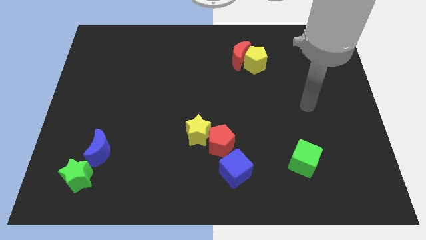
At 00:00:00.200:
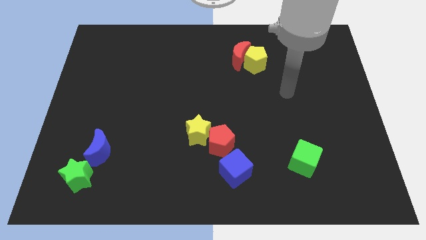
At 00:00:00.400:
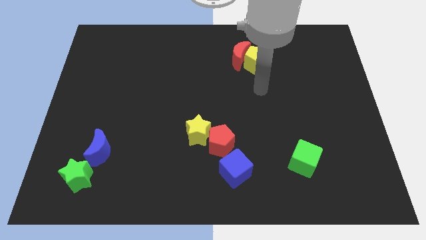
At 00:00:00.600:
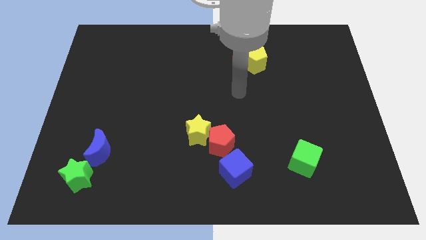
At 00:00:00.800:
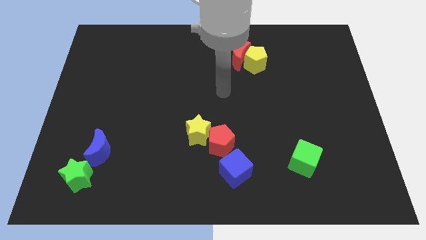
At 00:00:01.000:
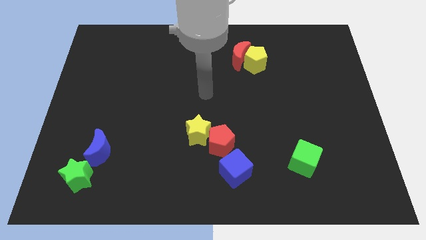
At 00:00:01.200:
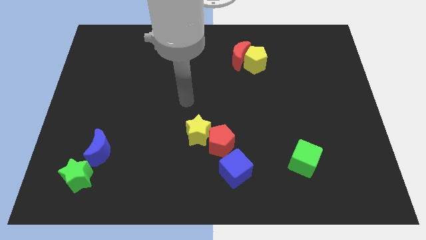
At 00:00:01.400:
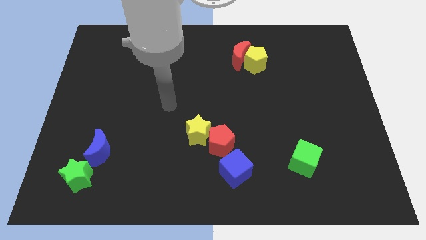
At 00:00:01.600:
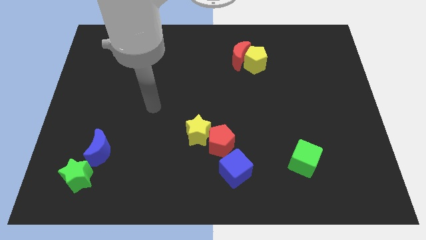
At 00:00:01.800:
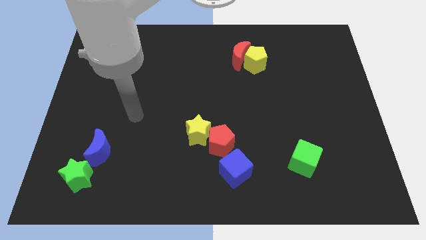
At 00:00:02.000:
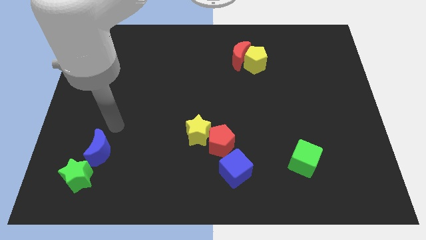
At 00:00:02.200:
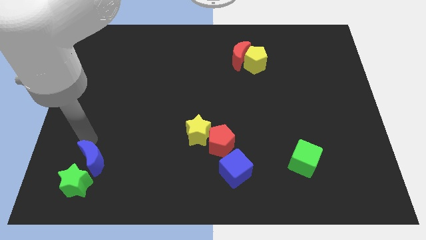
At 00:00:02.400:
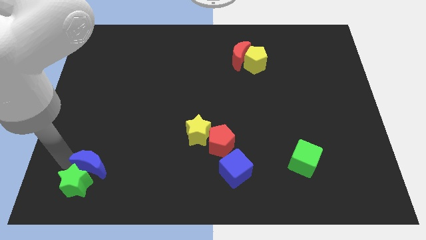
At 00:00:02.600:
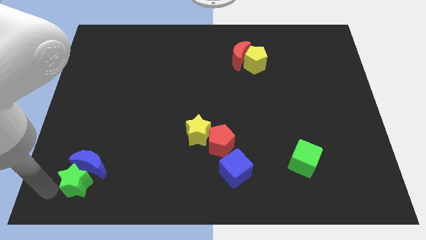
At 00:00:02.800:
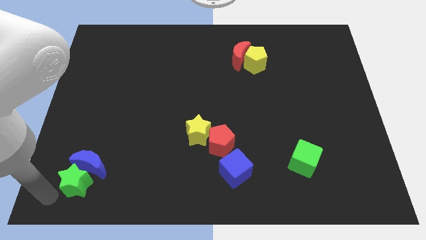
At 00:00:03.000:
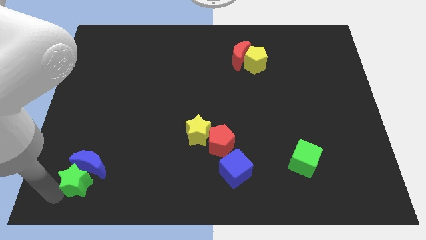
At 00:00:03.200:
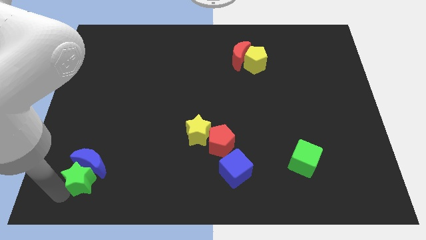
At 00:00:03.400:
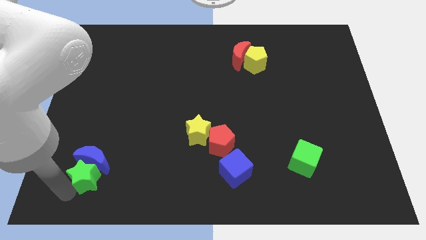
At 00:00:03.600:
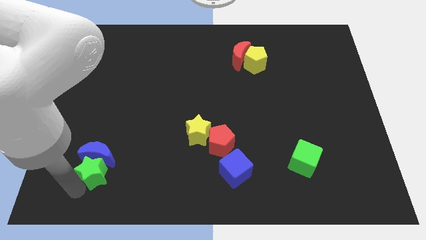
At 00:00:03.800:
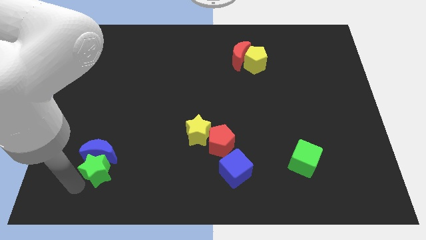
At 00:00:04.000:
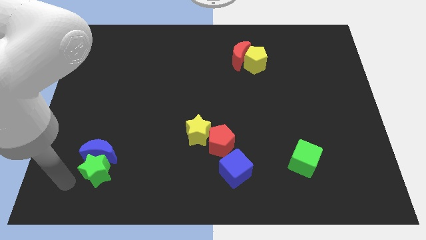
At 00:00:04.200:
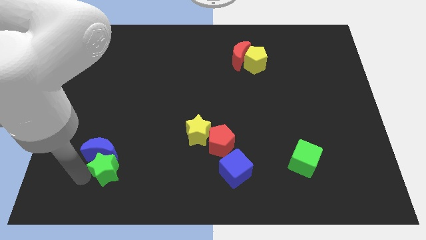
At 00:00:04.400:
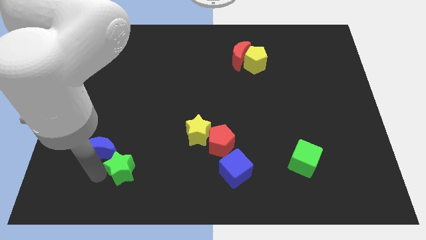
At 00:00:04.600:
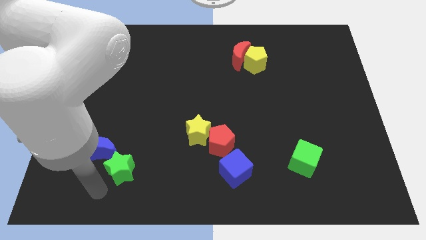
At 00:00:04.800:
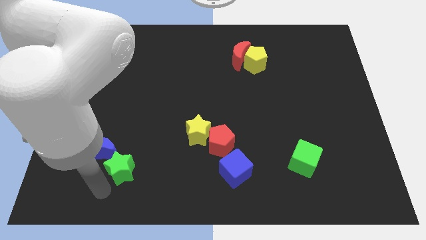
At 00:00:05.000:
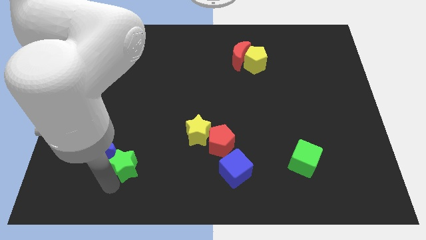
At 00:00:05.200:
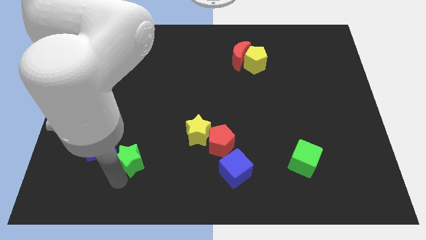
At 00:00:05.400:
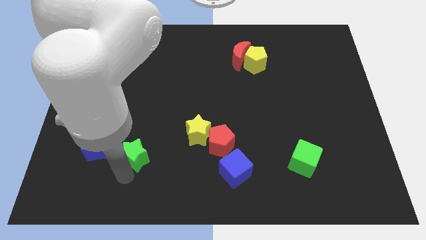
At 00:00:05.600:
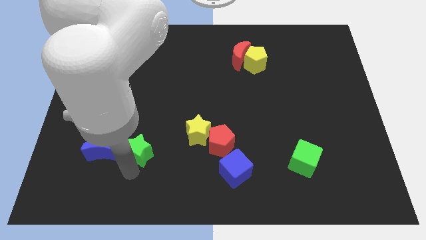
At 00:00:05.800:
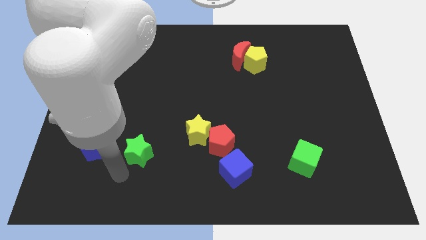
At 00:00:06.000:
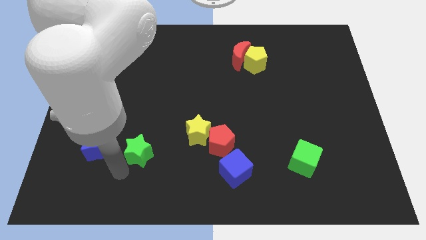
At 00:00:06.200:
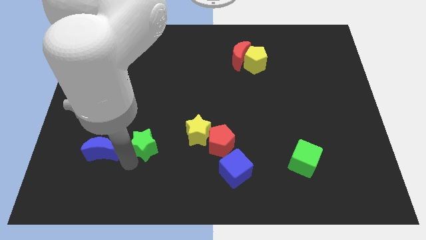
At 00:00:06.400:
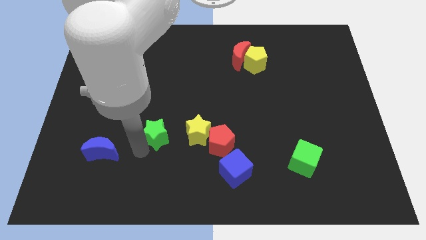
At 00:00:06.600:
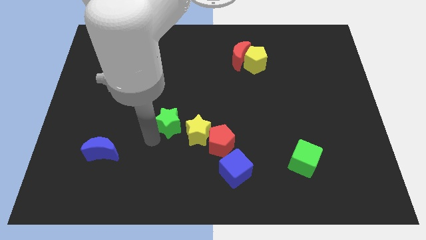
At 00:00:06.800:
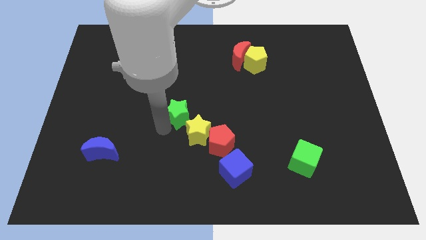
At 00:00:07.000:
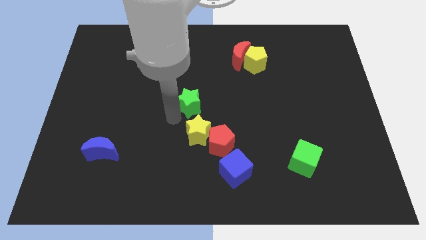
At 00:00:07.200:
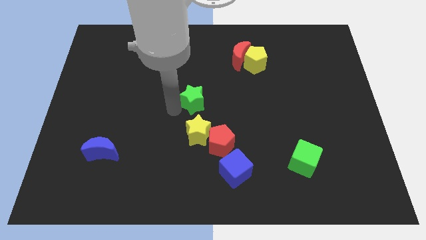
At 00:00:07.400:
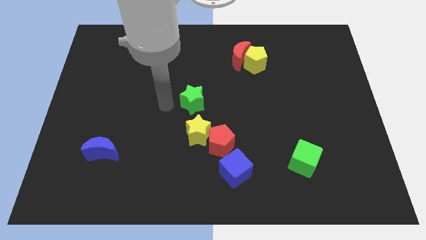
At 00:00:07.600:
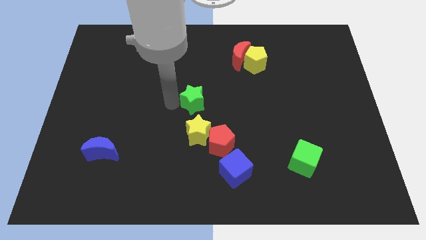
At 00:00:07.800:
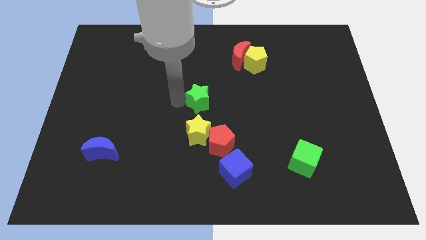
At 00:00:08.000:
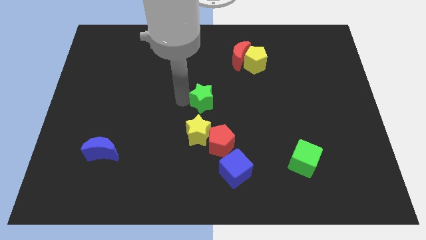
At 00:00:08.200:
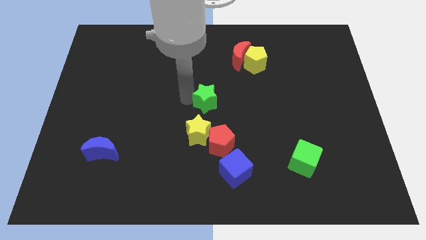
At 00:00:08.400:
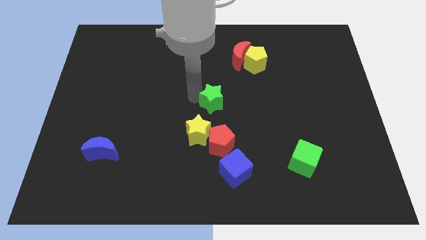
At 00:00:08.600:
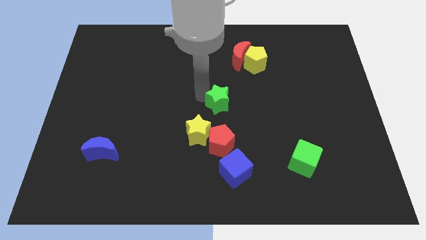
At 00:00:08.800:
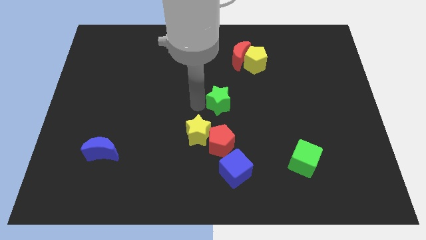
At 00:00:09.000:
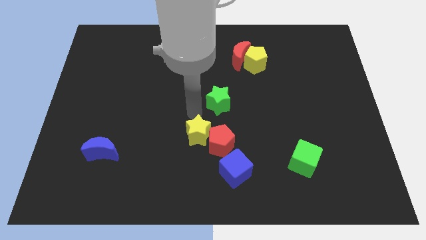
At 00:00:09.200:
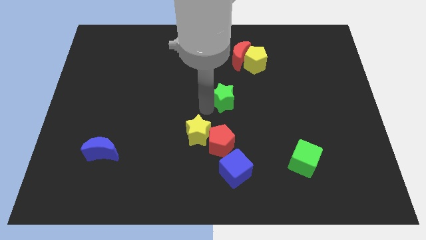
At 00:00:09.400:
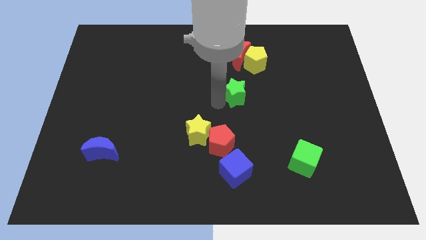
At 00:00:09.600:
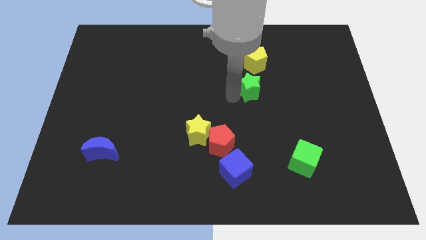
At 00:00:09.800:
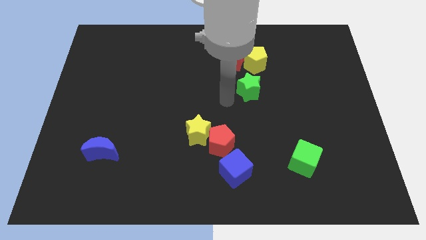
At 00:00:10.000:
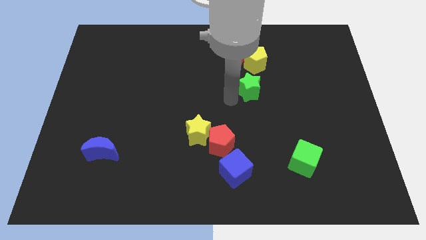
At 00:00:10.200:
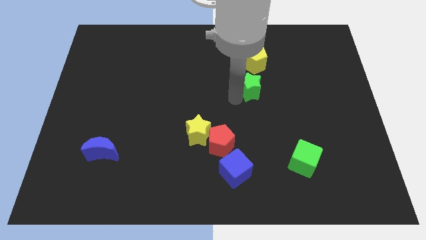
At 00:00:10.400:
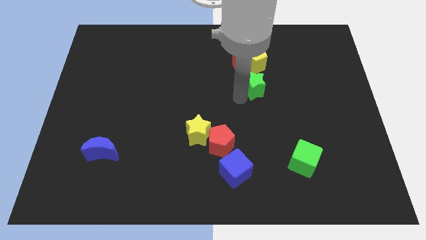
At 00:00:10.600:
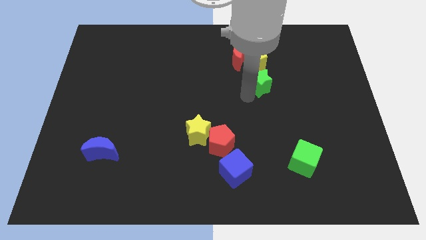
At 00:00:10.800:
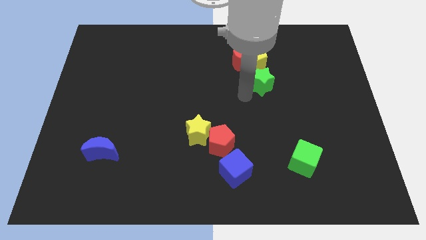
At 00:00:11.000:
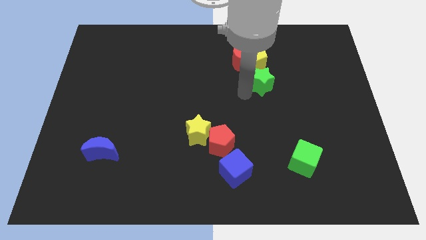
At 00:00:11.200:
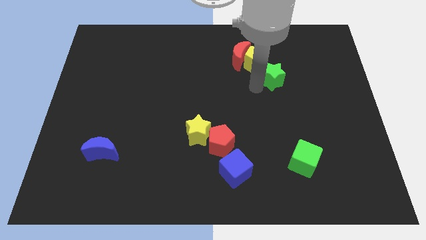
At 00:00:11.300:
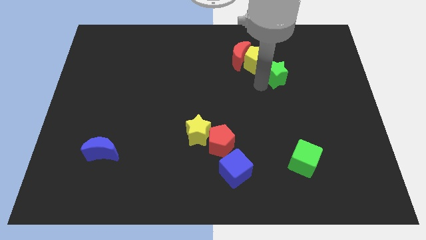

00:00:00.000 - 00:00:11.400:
move the green star just right of the yellow pentagon

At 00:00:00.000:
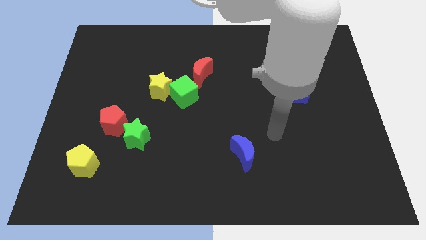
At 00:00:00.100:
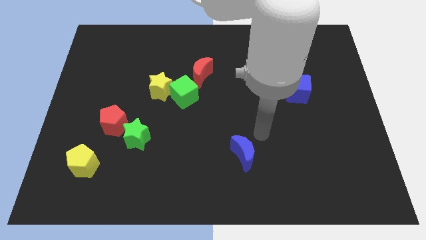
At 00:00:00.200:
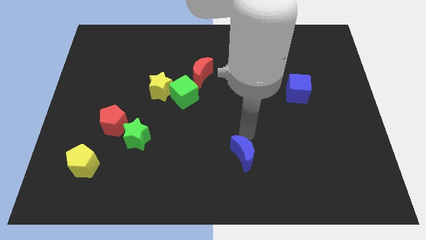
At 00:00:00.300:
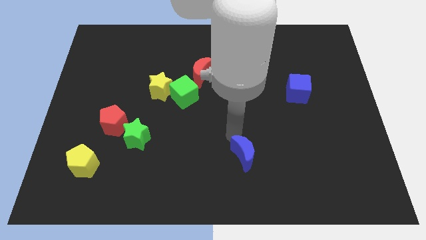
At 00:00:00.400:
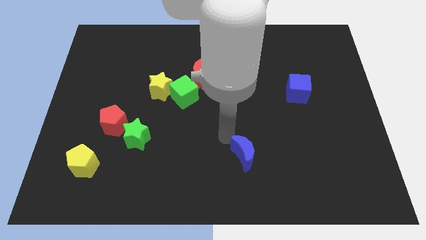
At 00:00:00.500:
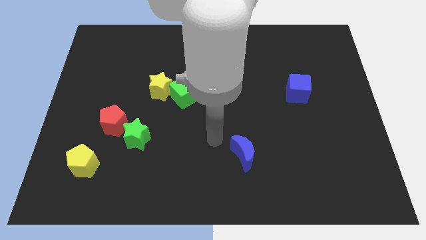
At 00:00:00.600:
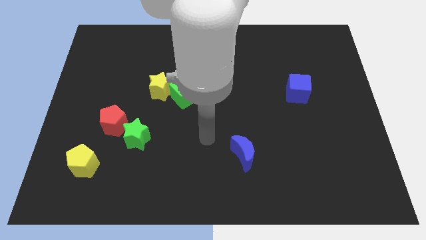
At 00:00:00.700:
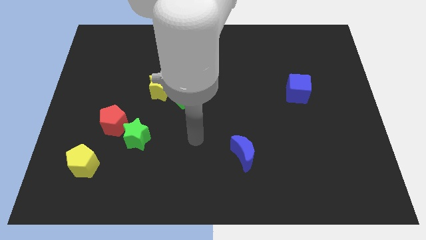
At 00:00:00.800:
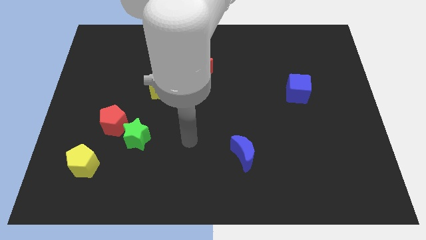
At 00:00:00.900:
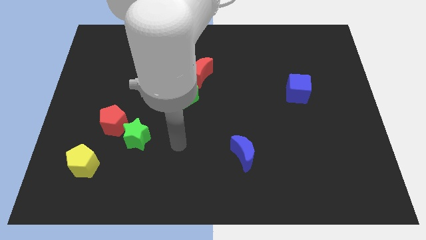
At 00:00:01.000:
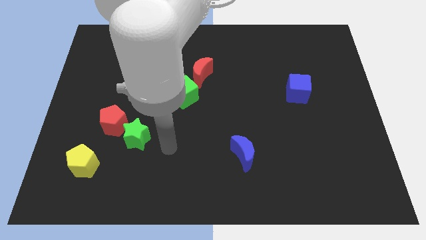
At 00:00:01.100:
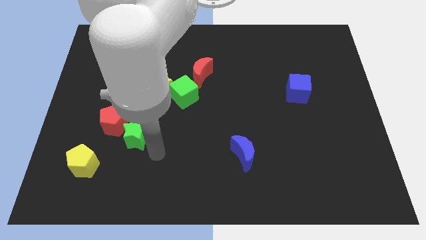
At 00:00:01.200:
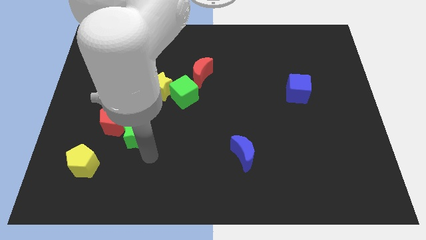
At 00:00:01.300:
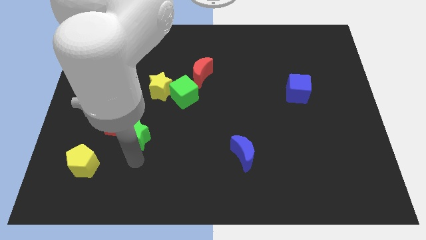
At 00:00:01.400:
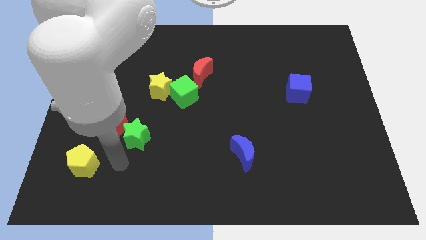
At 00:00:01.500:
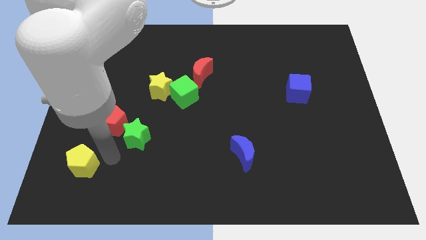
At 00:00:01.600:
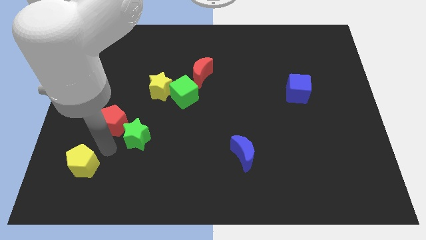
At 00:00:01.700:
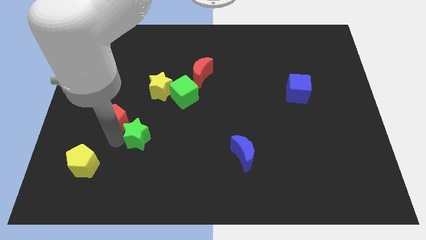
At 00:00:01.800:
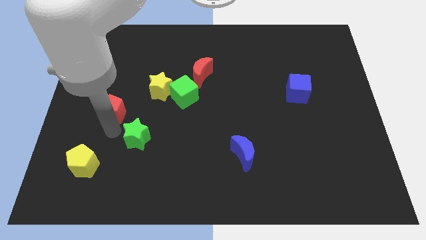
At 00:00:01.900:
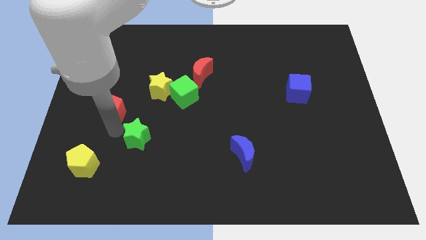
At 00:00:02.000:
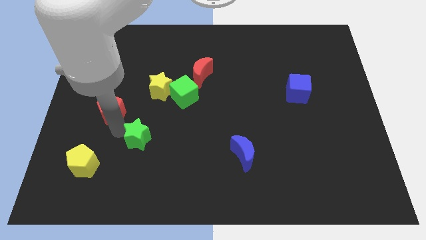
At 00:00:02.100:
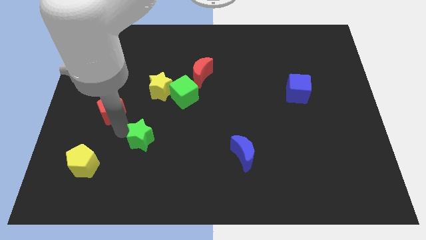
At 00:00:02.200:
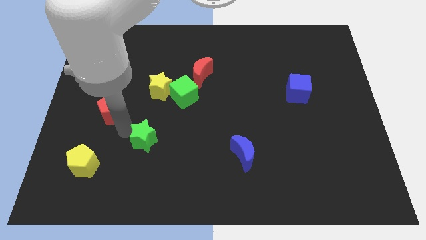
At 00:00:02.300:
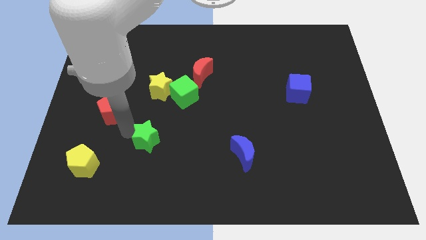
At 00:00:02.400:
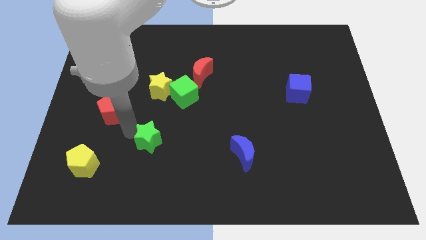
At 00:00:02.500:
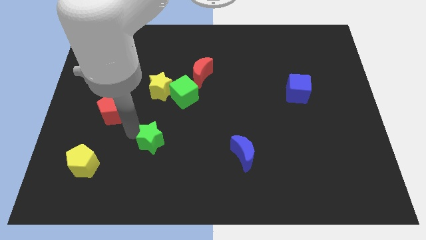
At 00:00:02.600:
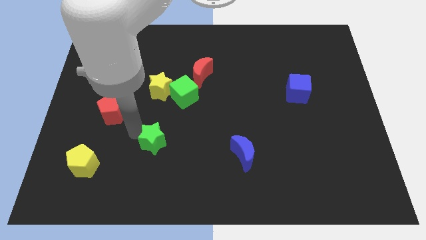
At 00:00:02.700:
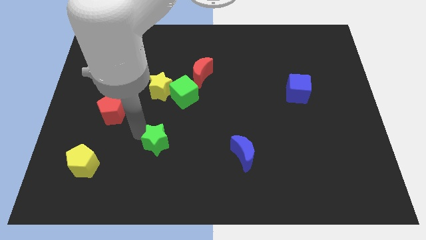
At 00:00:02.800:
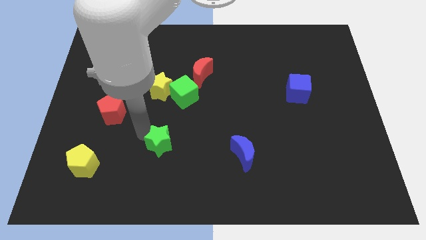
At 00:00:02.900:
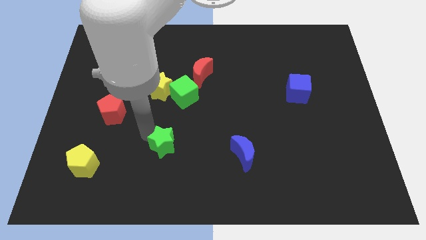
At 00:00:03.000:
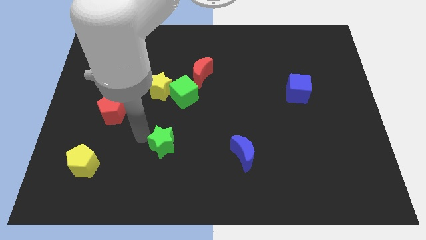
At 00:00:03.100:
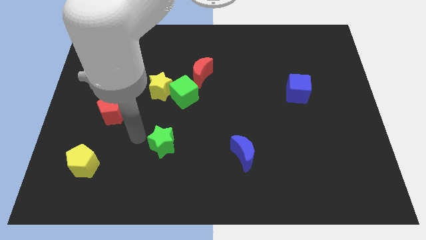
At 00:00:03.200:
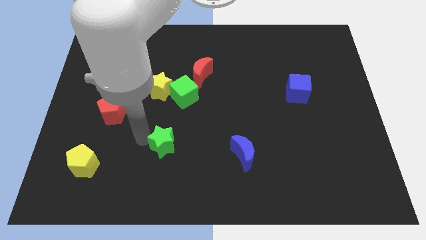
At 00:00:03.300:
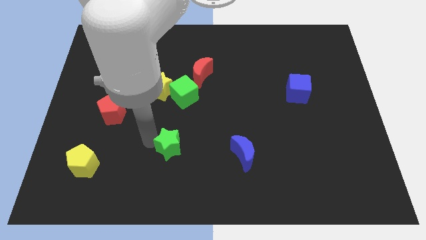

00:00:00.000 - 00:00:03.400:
push the green star to the left side of the blue moon
